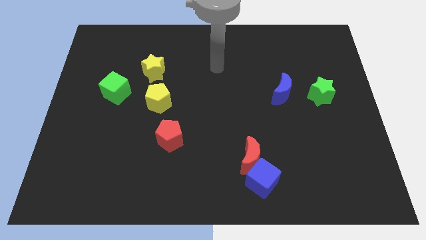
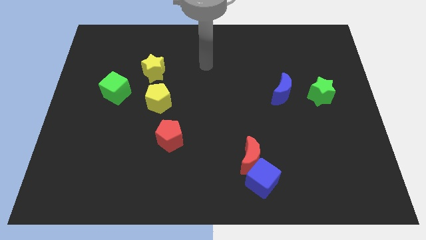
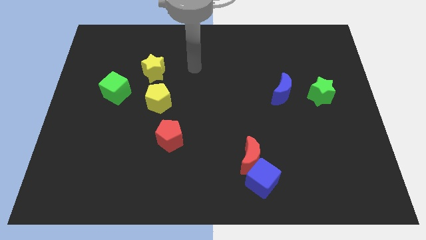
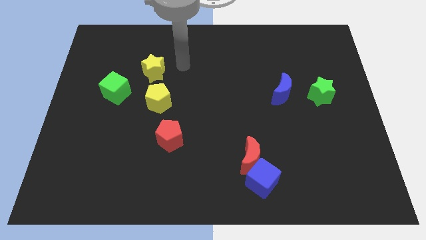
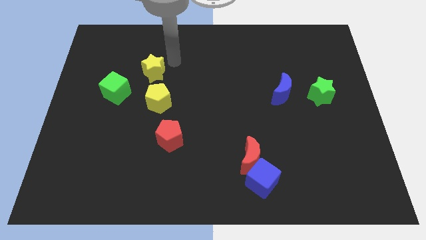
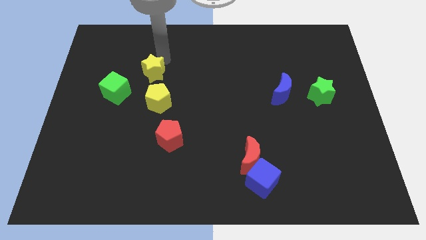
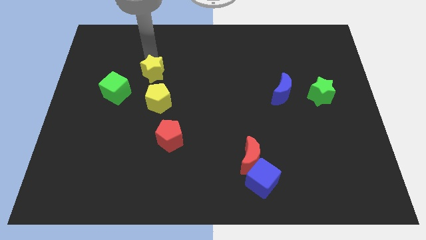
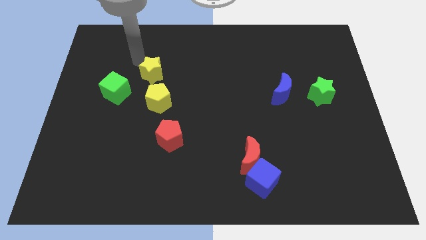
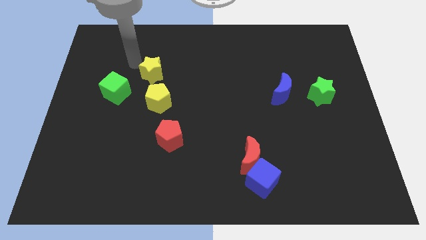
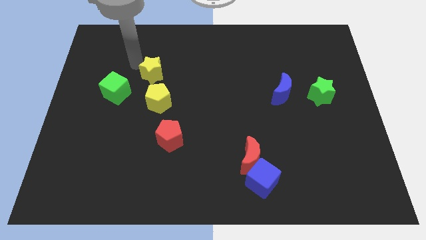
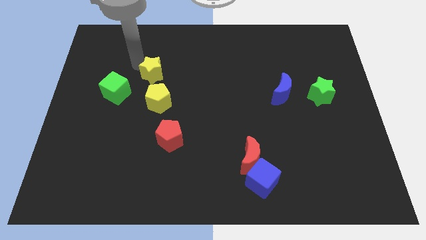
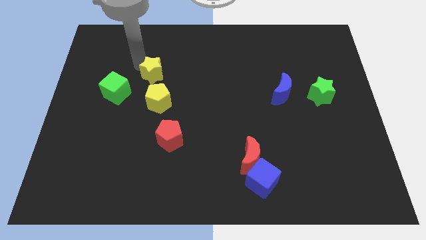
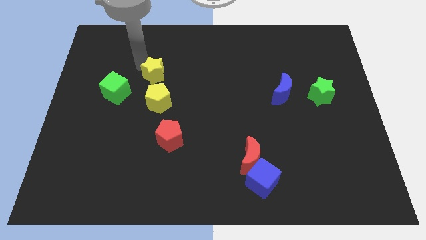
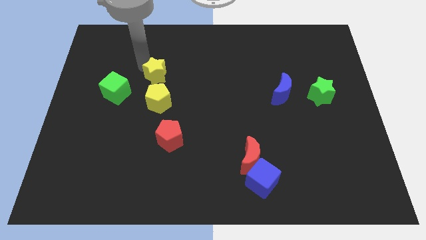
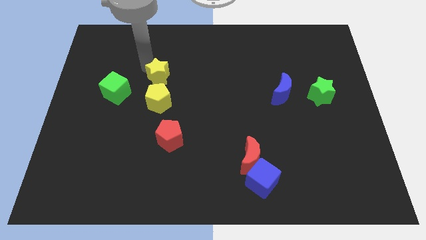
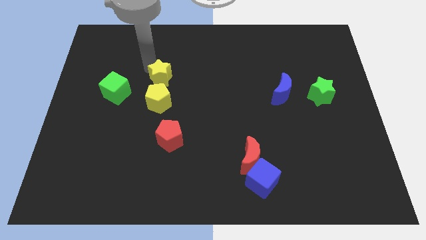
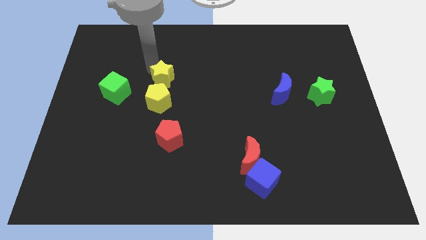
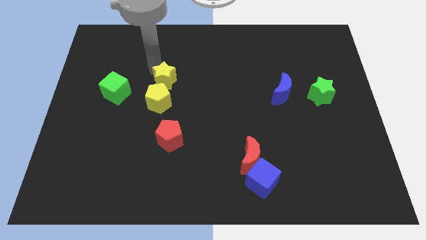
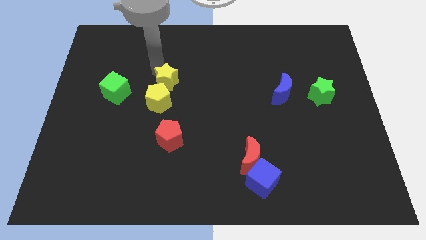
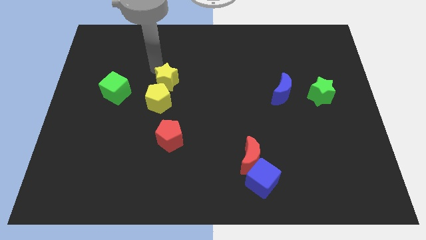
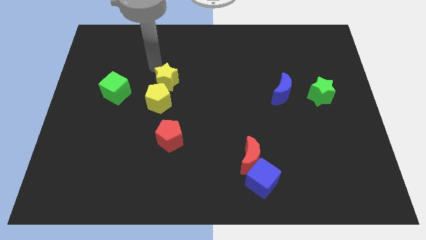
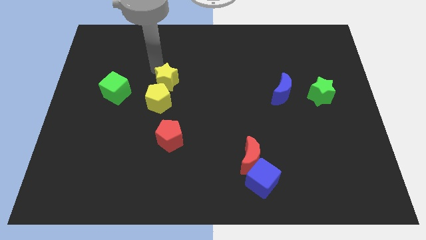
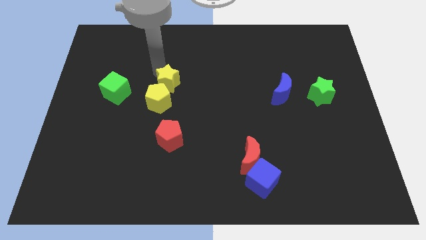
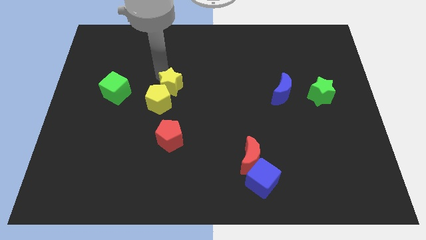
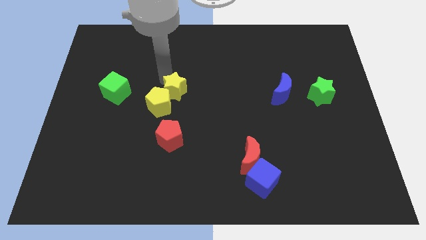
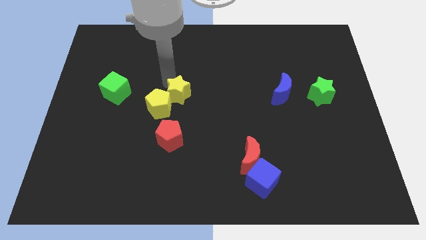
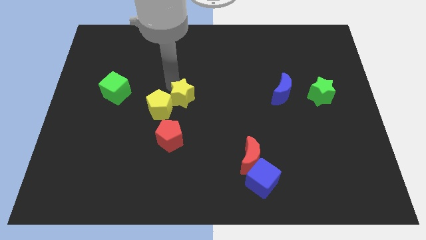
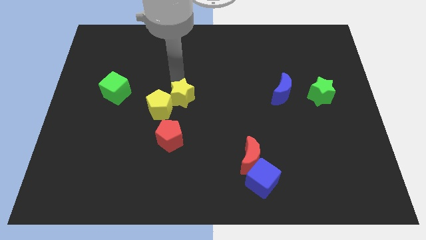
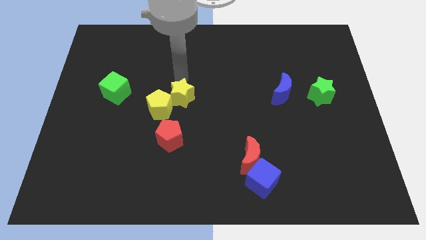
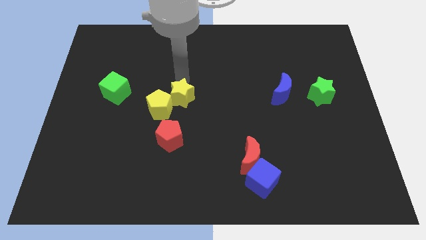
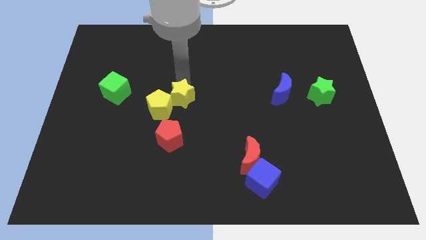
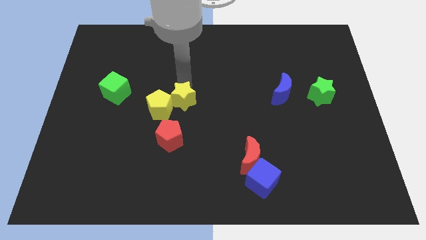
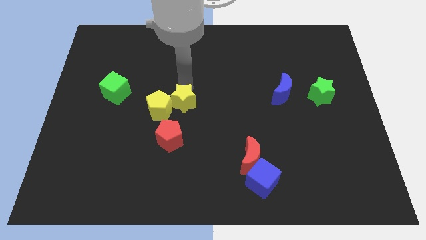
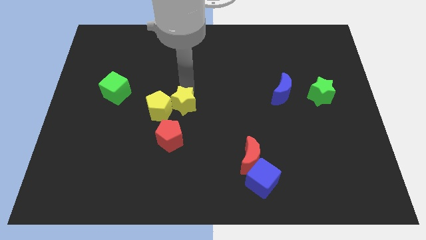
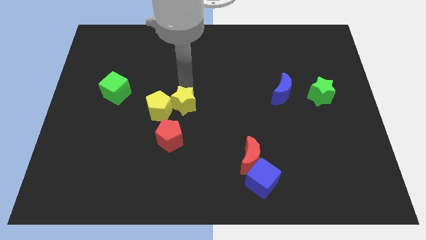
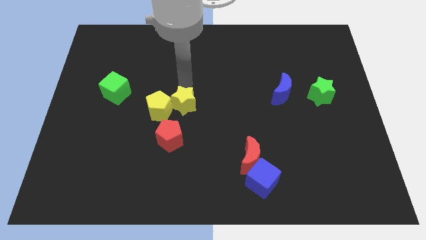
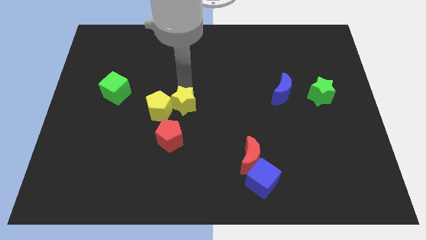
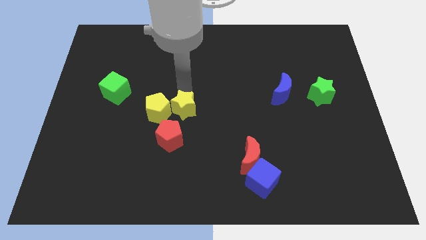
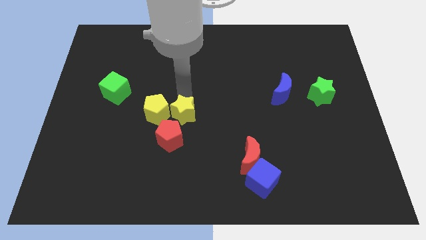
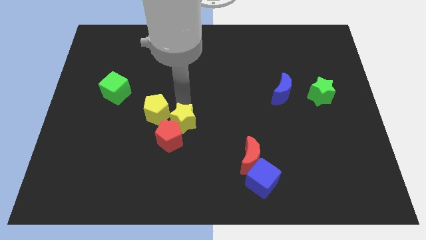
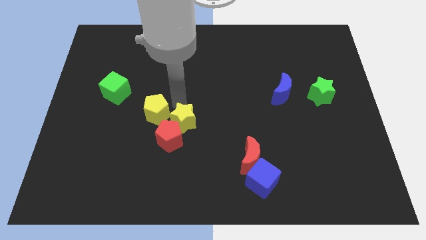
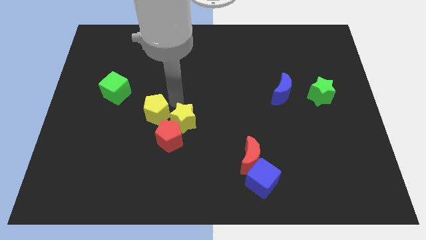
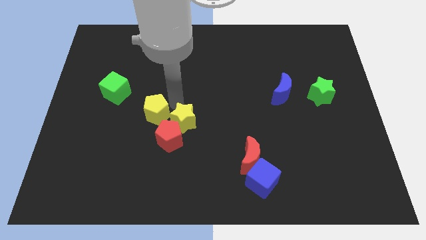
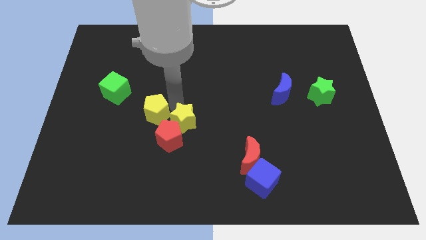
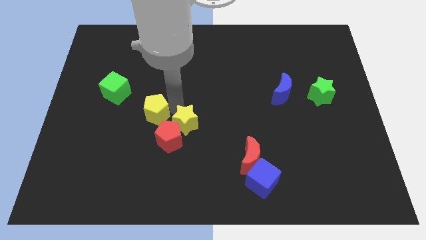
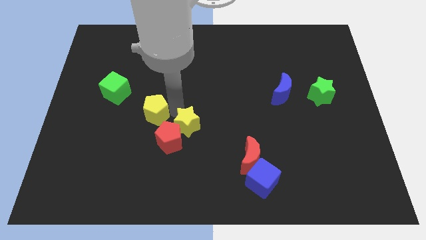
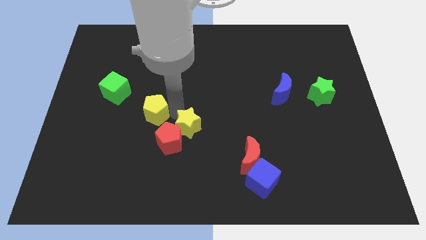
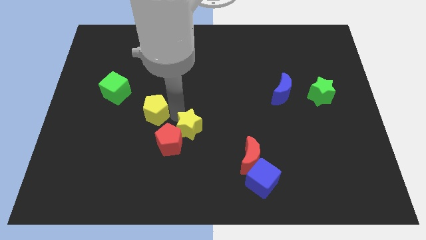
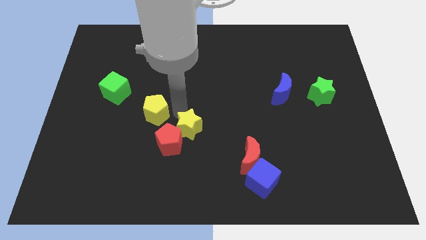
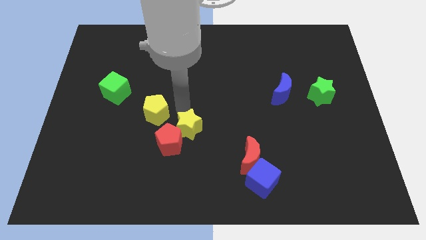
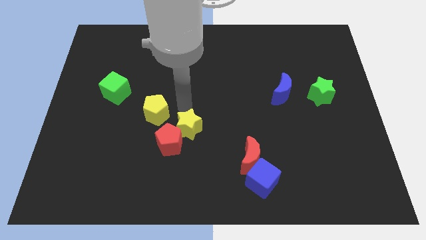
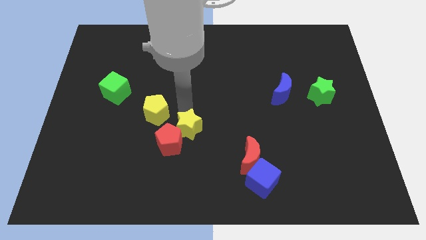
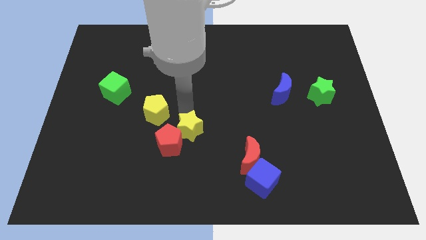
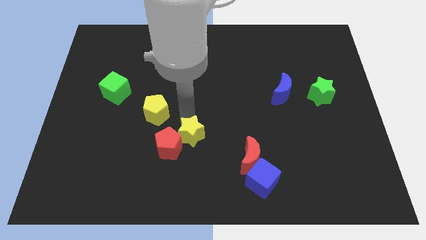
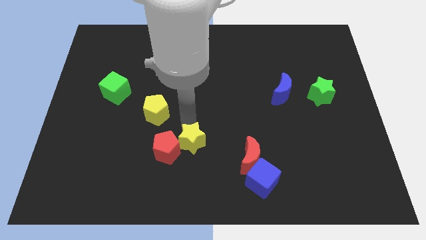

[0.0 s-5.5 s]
slide the yellow star left of the red moon

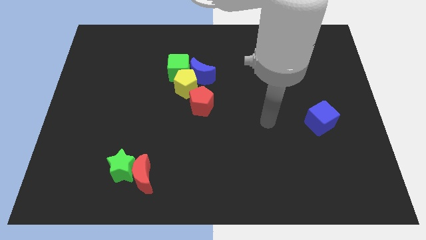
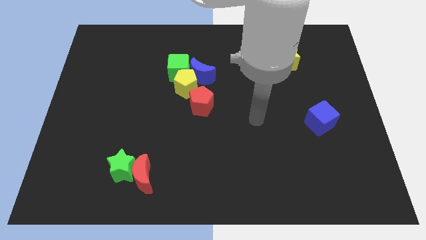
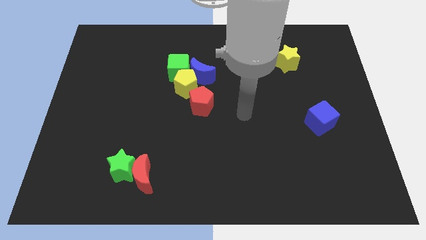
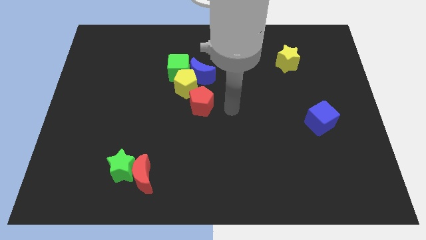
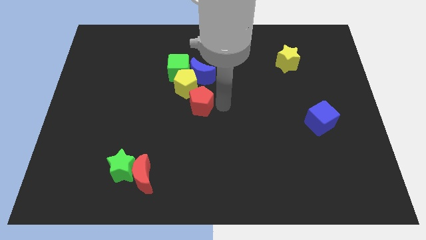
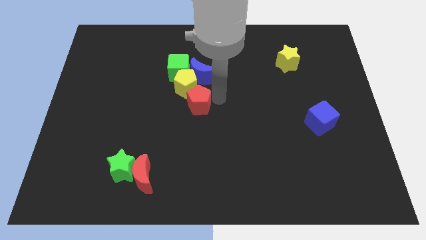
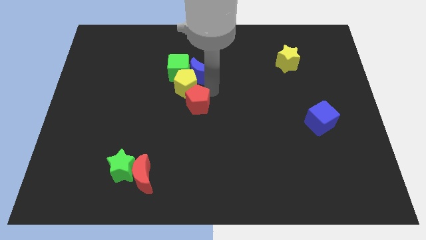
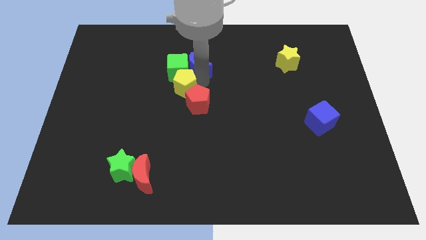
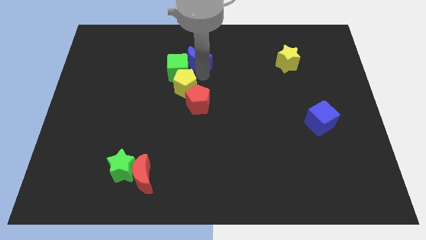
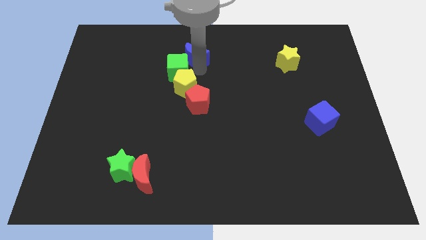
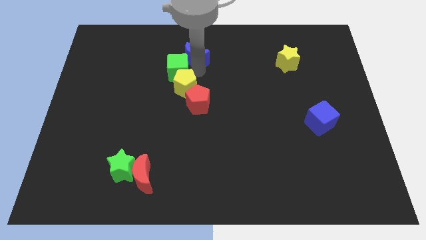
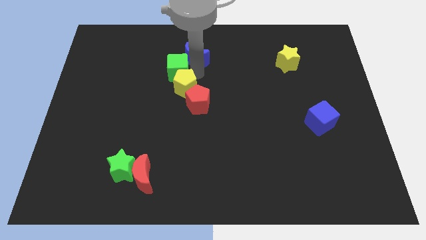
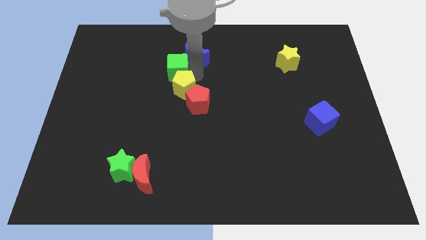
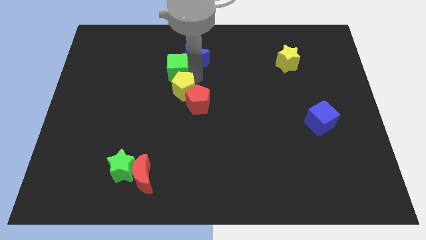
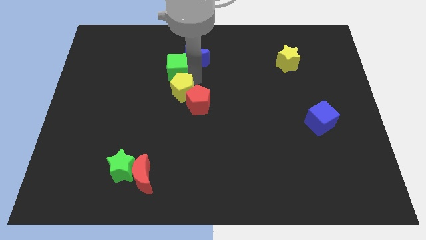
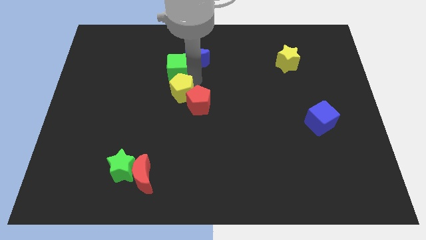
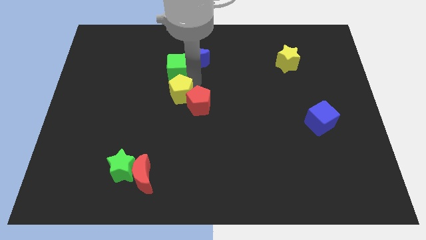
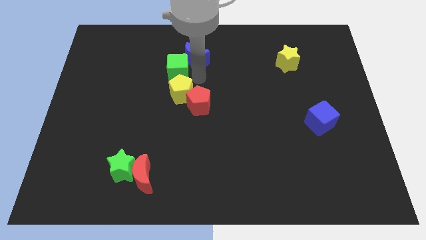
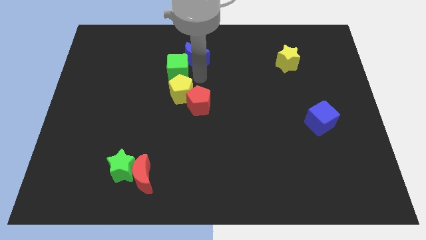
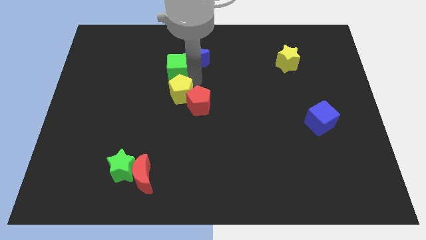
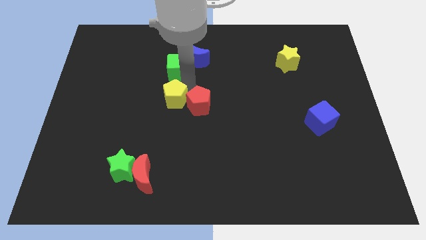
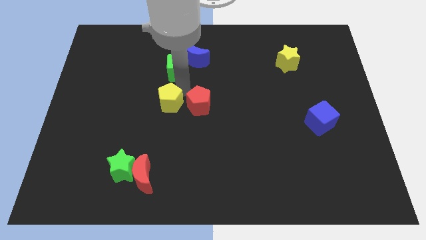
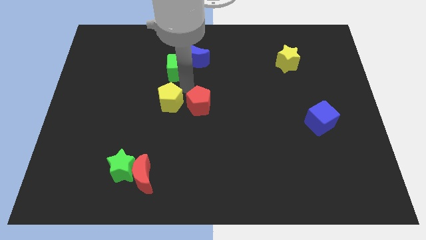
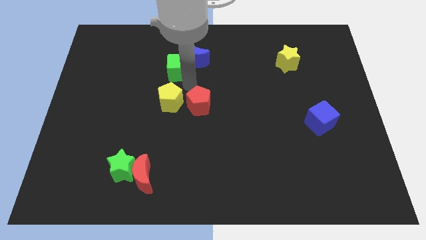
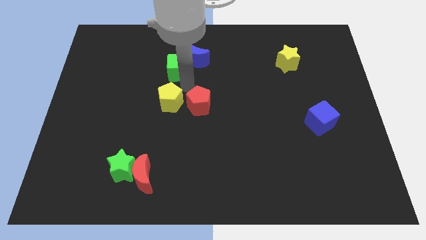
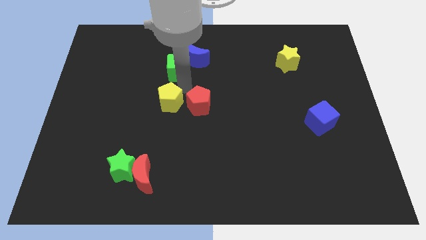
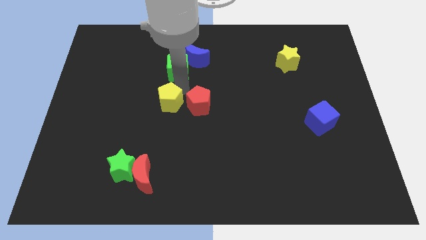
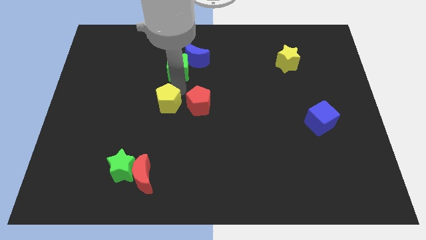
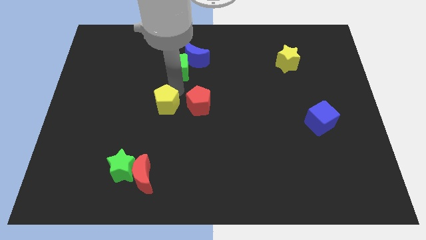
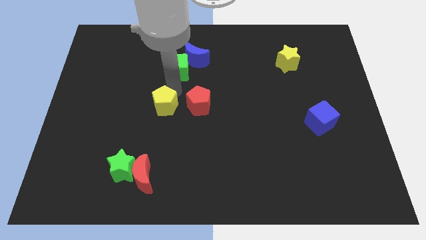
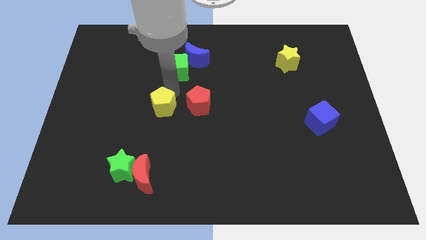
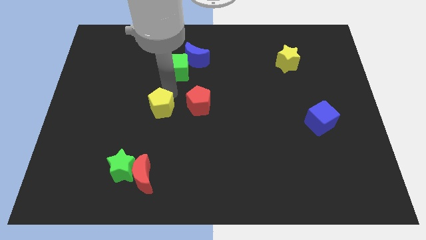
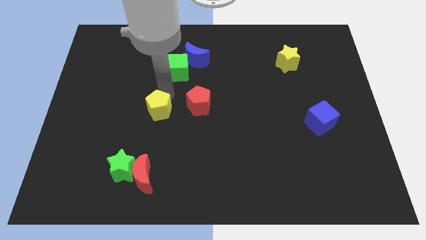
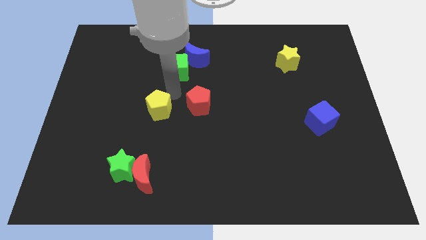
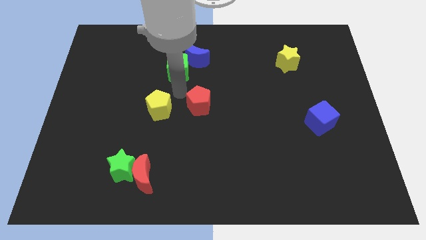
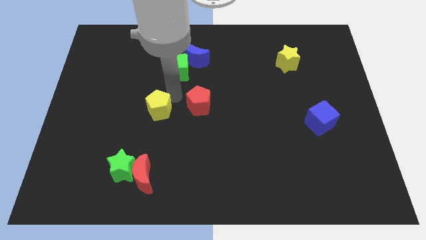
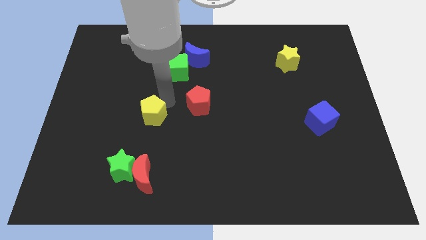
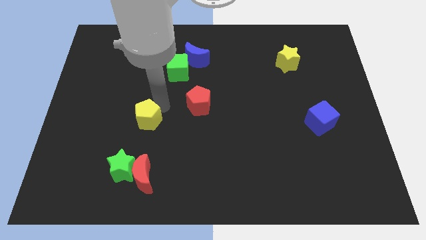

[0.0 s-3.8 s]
put the yellow pentagon to the top side of the green star
